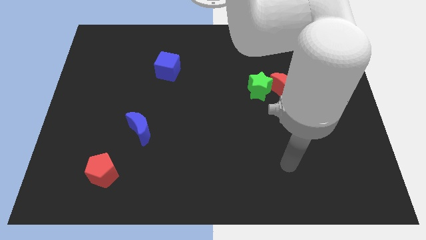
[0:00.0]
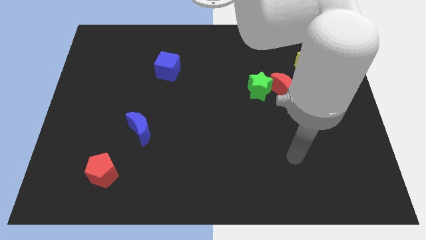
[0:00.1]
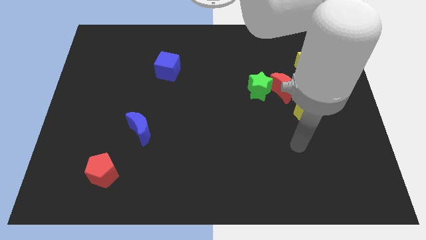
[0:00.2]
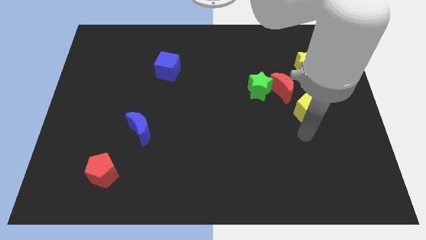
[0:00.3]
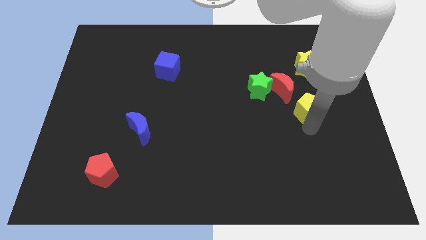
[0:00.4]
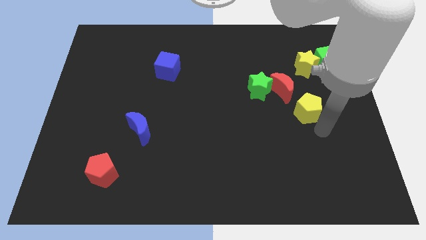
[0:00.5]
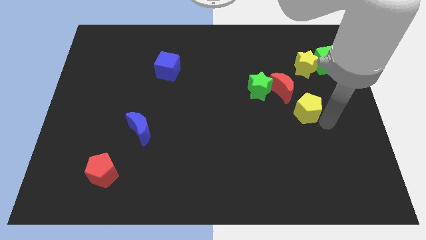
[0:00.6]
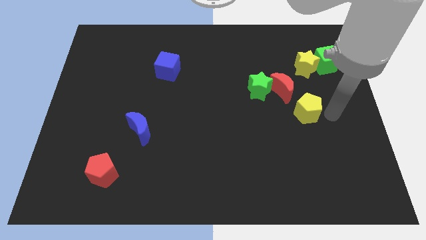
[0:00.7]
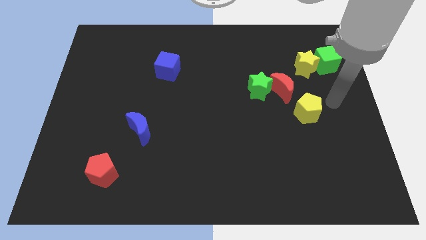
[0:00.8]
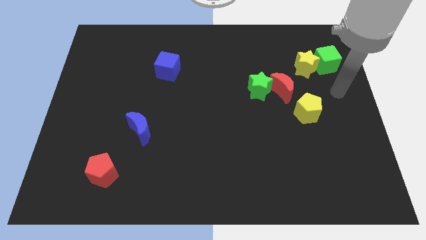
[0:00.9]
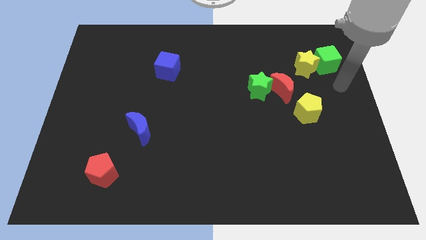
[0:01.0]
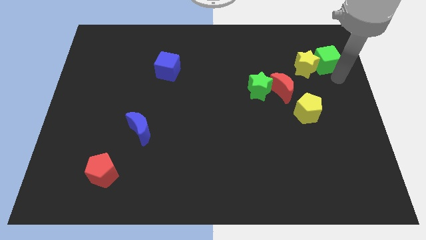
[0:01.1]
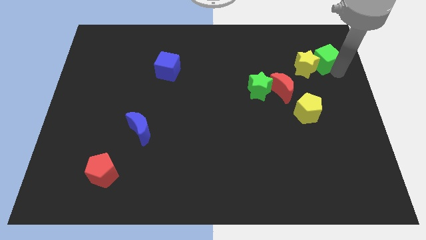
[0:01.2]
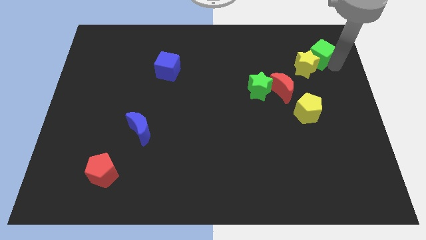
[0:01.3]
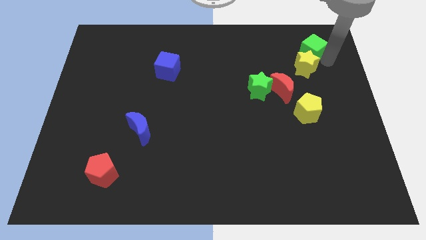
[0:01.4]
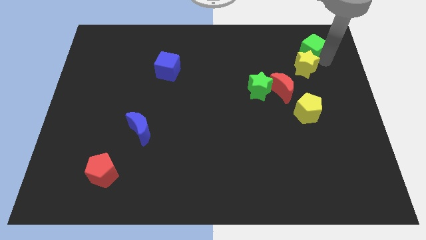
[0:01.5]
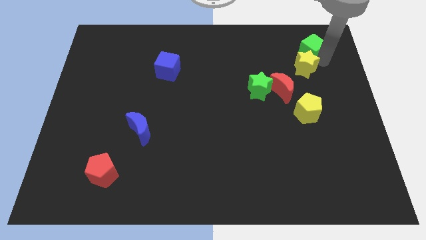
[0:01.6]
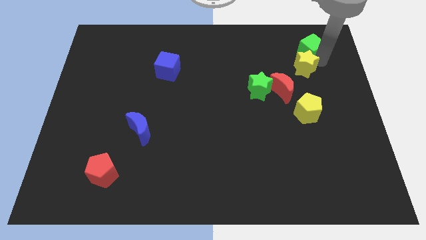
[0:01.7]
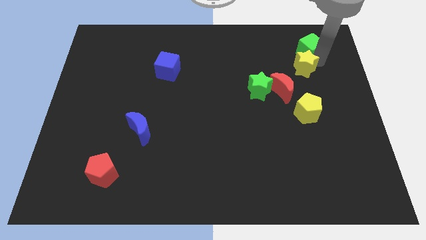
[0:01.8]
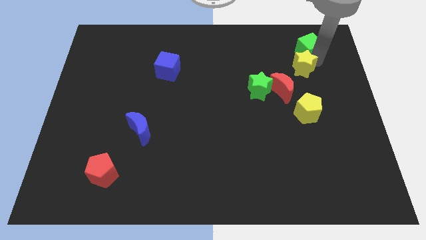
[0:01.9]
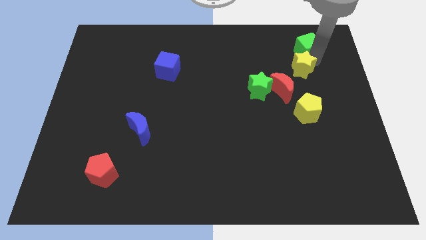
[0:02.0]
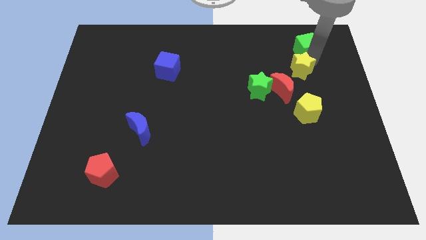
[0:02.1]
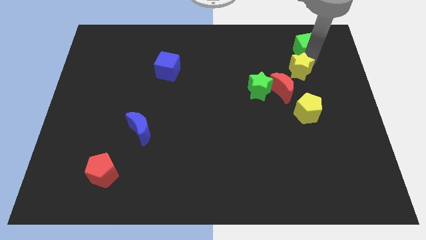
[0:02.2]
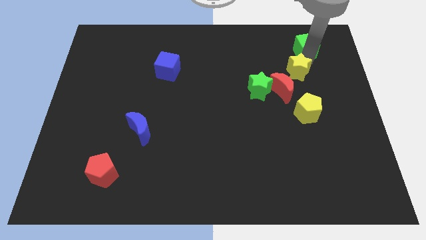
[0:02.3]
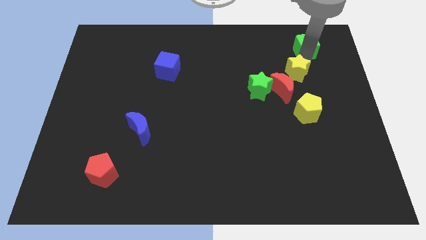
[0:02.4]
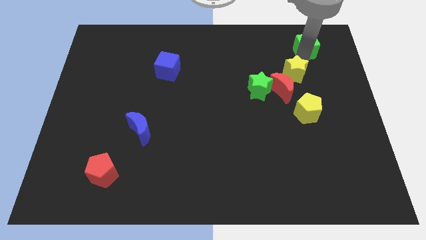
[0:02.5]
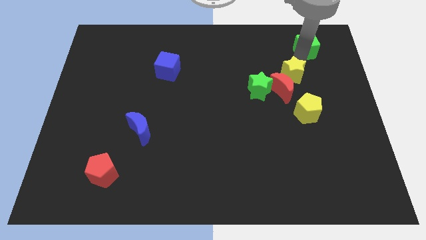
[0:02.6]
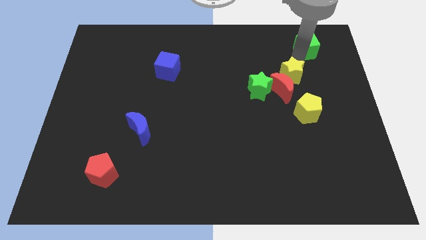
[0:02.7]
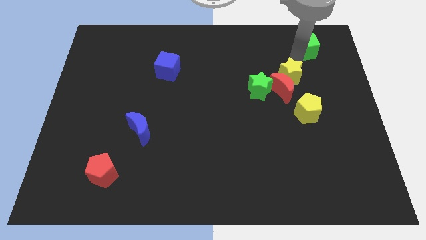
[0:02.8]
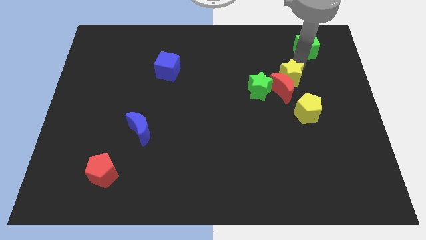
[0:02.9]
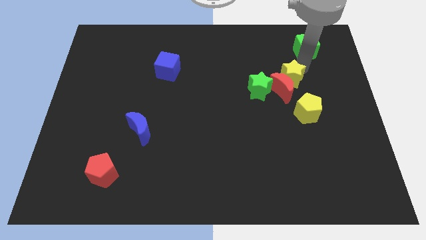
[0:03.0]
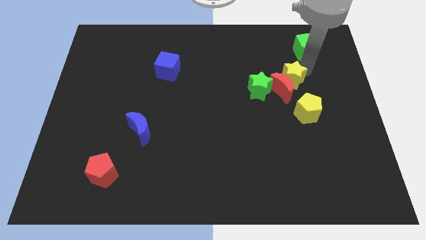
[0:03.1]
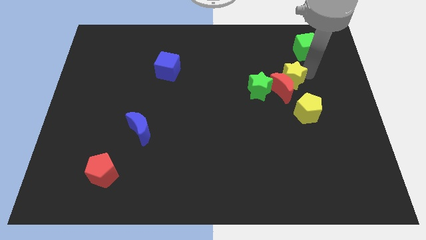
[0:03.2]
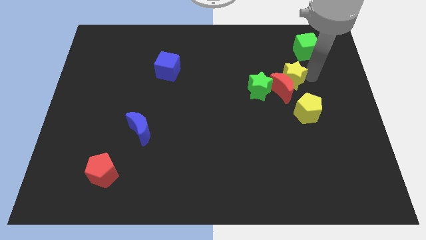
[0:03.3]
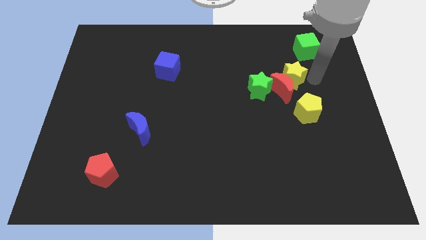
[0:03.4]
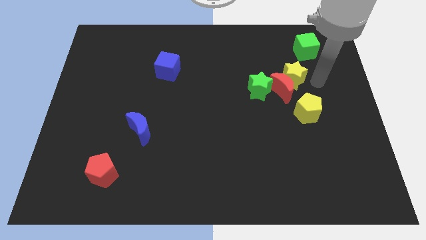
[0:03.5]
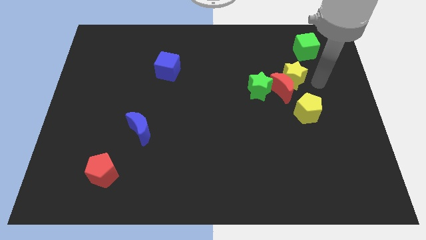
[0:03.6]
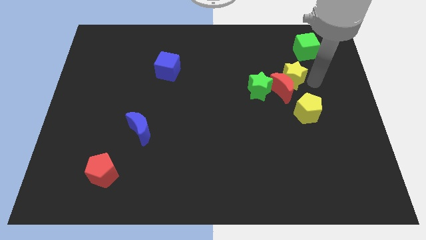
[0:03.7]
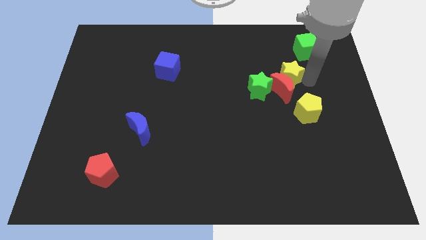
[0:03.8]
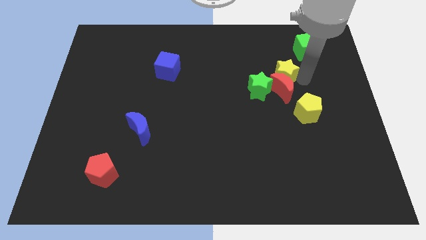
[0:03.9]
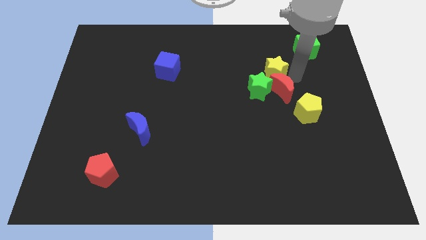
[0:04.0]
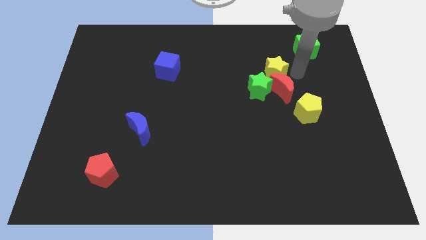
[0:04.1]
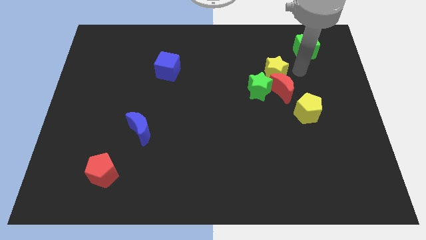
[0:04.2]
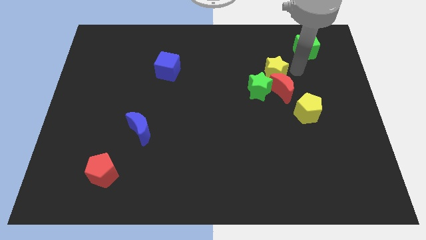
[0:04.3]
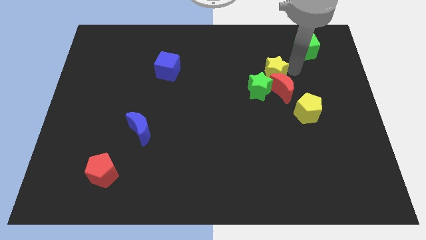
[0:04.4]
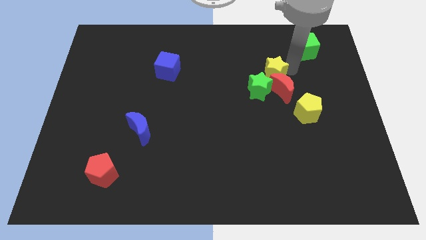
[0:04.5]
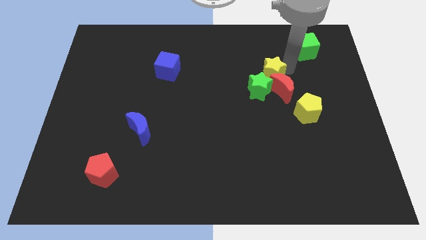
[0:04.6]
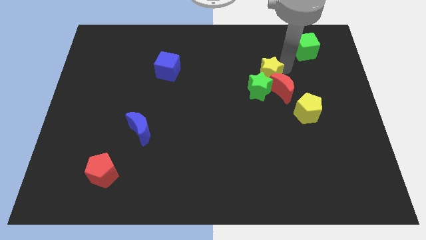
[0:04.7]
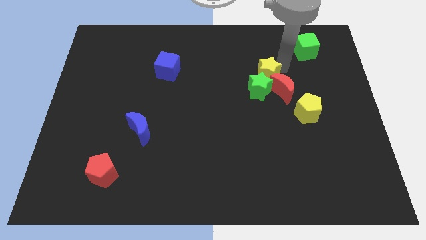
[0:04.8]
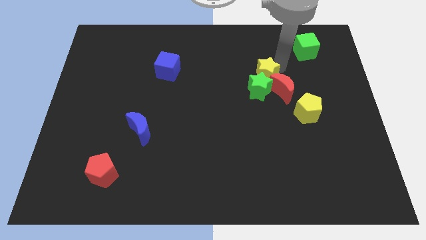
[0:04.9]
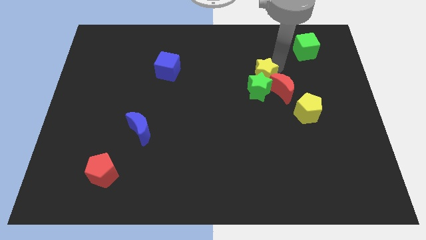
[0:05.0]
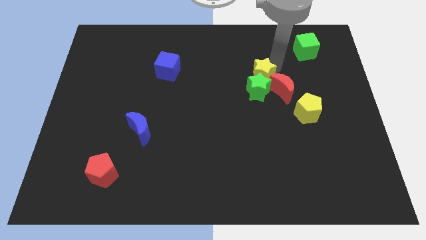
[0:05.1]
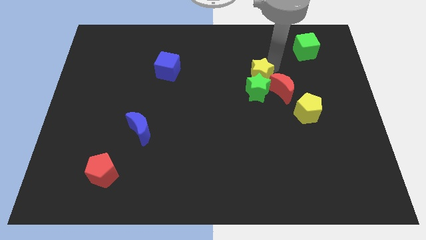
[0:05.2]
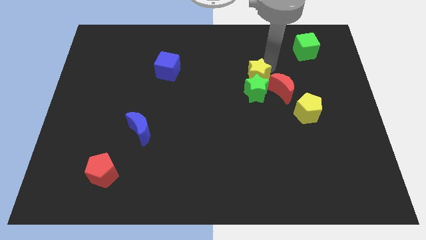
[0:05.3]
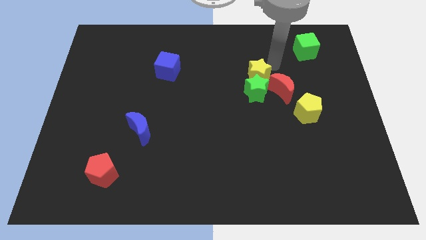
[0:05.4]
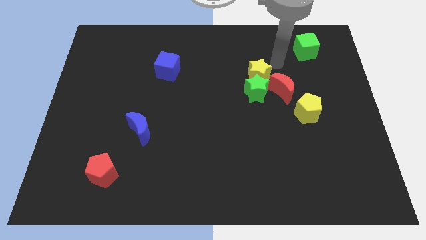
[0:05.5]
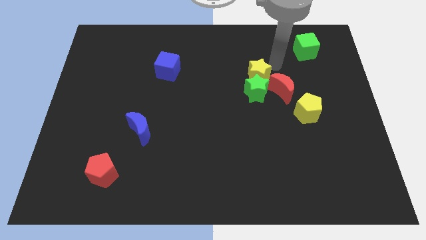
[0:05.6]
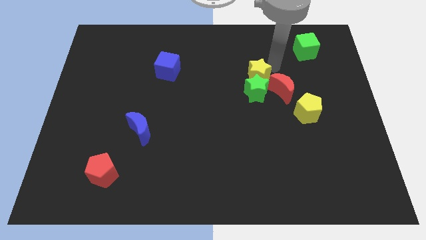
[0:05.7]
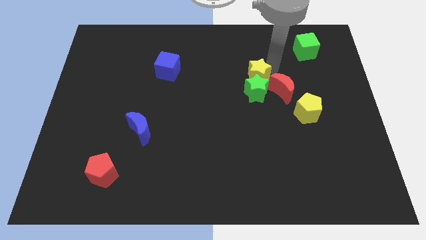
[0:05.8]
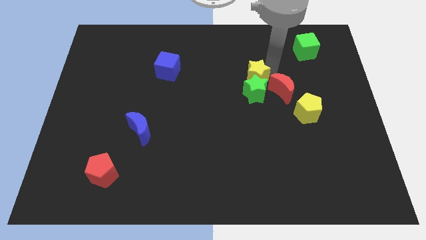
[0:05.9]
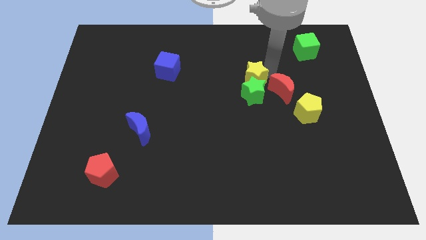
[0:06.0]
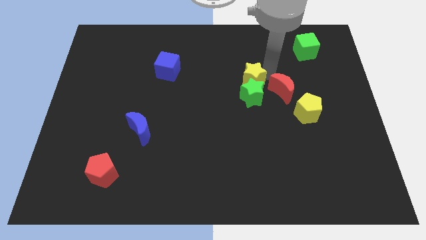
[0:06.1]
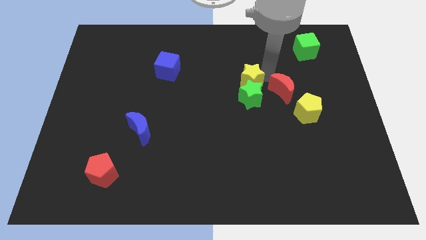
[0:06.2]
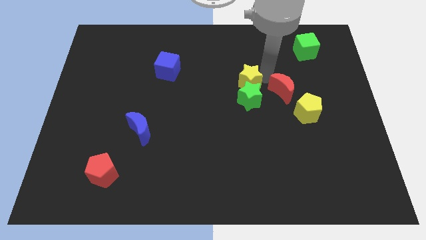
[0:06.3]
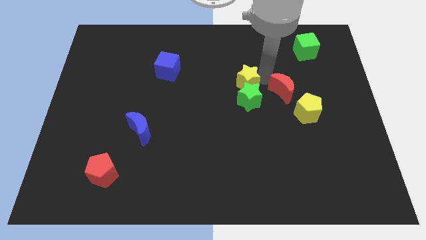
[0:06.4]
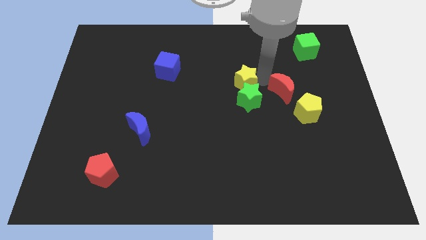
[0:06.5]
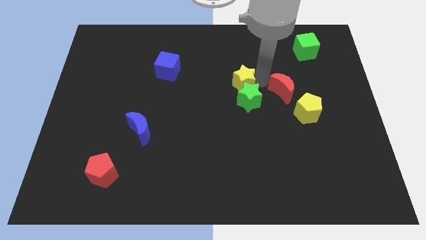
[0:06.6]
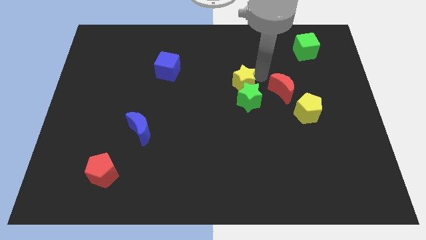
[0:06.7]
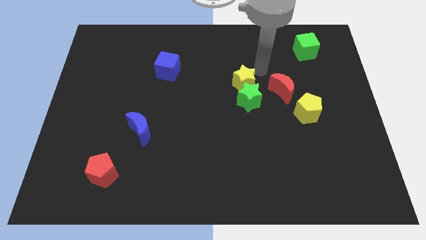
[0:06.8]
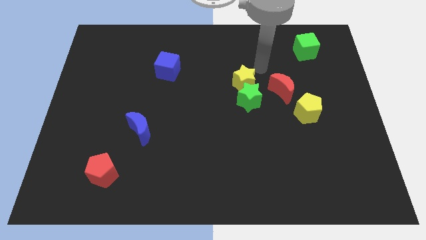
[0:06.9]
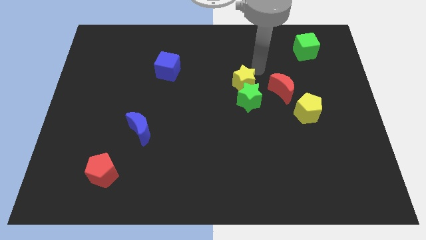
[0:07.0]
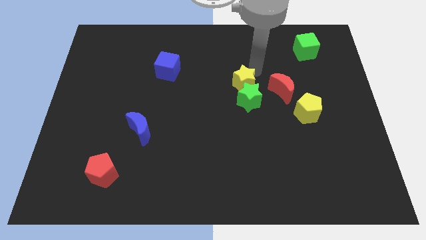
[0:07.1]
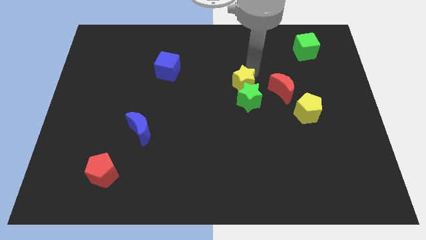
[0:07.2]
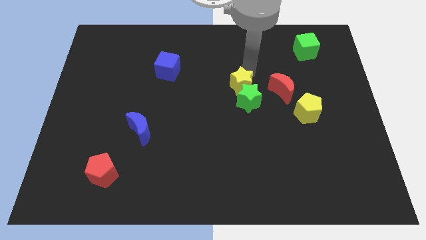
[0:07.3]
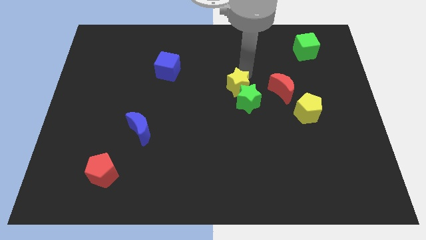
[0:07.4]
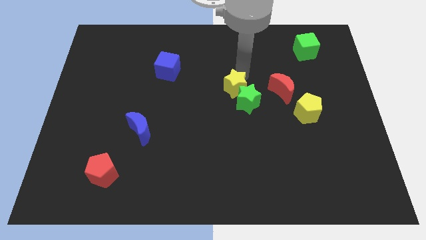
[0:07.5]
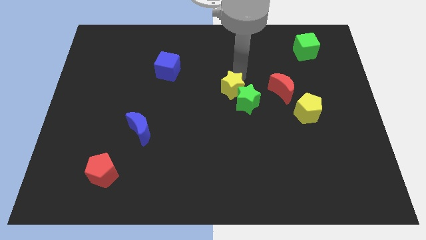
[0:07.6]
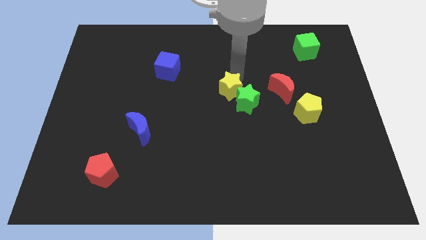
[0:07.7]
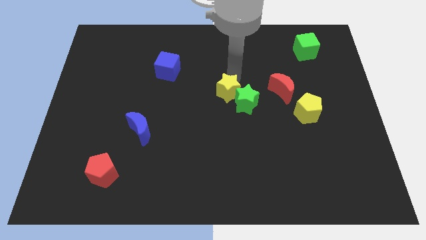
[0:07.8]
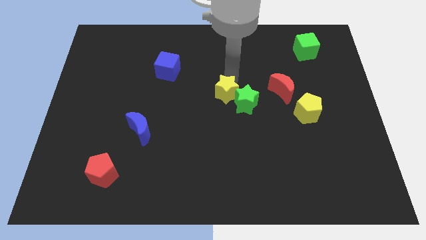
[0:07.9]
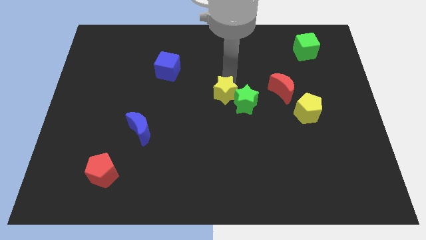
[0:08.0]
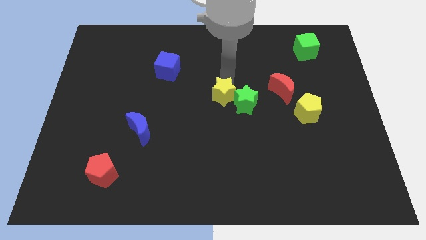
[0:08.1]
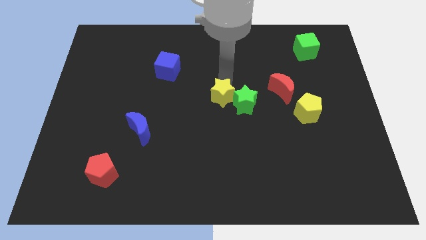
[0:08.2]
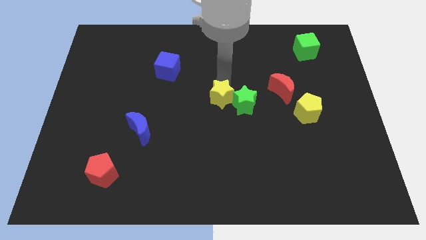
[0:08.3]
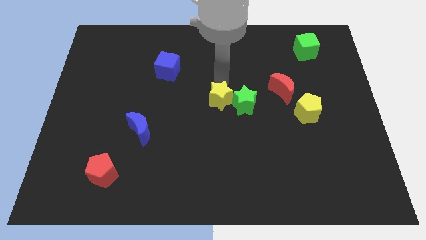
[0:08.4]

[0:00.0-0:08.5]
push the yellow star diagonally down and to the left
